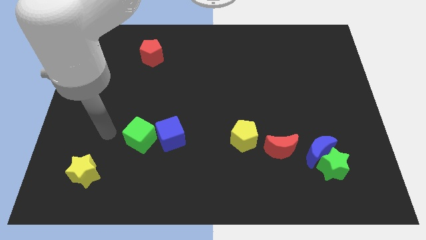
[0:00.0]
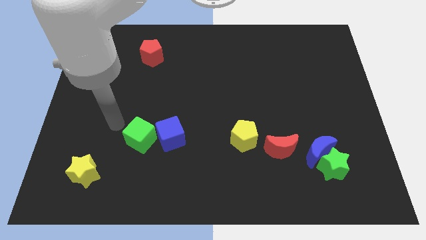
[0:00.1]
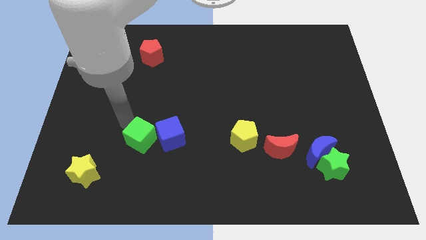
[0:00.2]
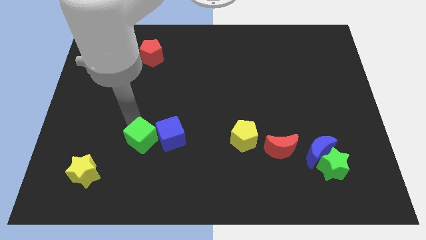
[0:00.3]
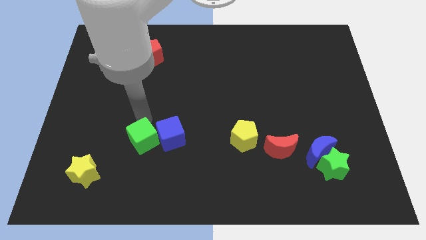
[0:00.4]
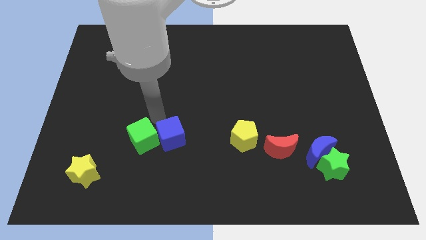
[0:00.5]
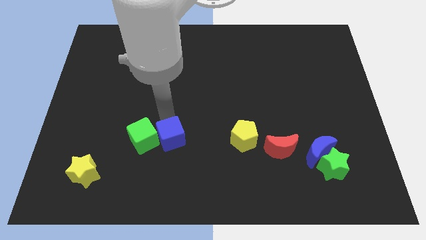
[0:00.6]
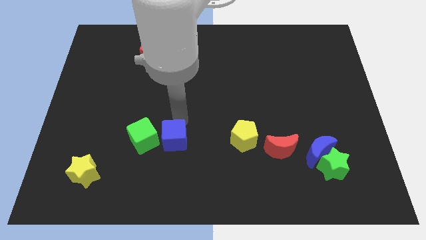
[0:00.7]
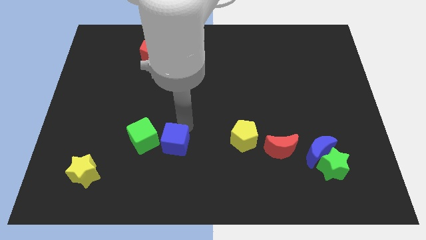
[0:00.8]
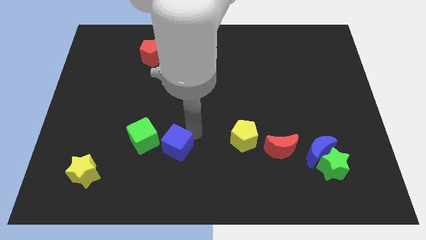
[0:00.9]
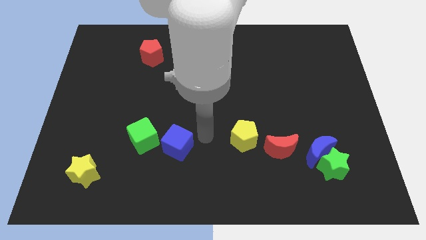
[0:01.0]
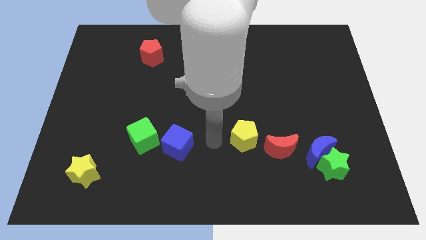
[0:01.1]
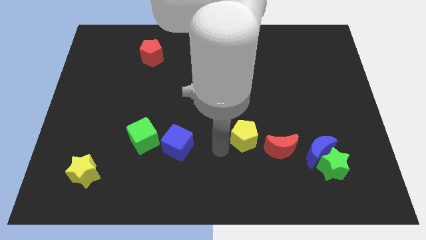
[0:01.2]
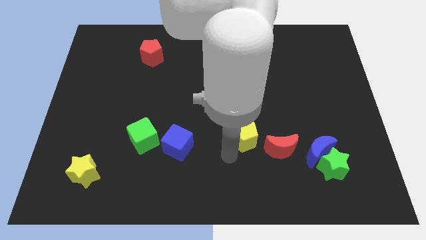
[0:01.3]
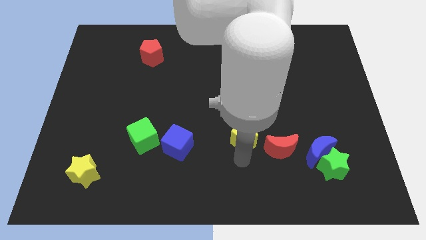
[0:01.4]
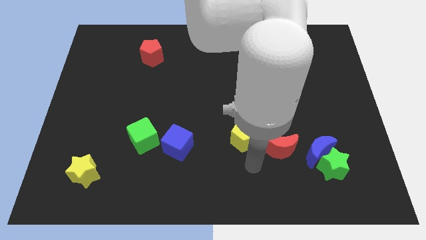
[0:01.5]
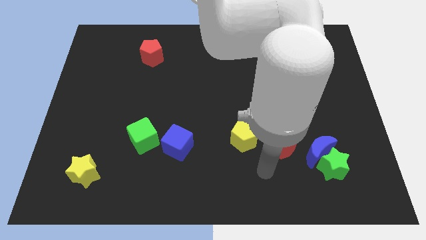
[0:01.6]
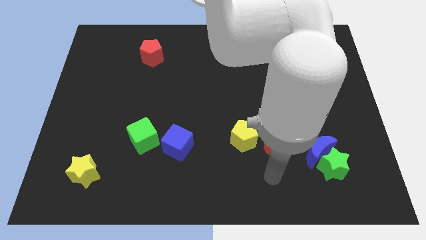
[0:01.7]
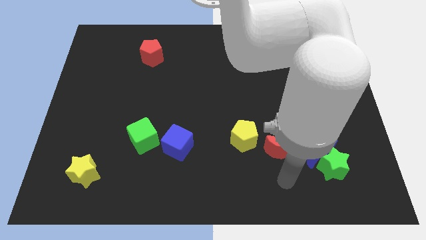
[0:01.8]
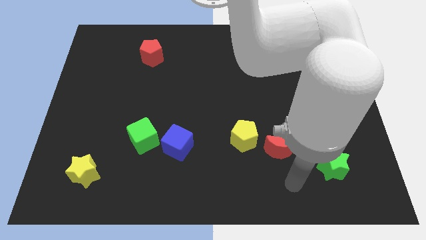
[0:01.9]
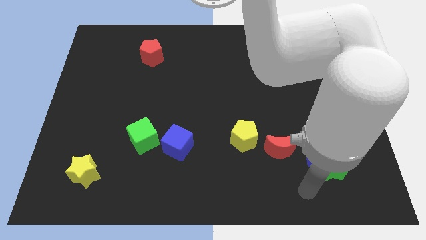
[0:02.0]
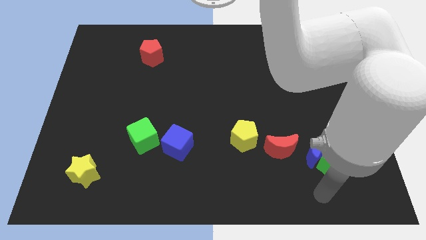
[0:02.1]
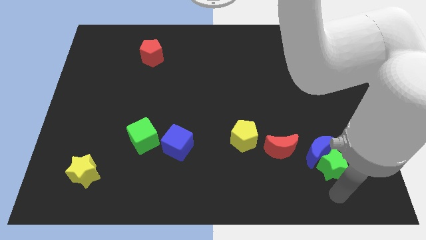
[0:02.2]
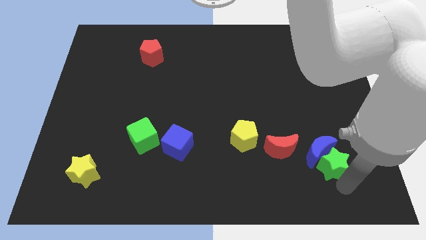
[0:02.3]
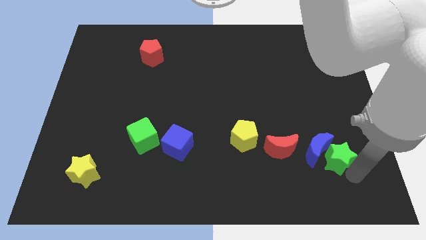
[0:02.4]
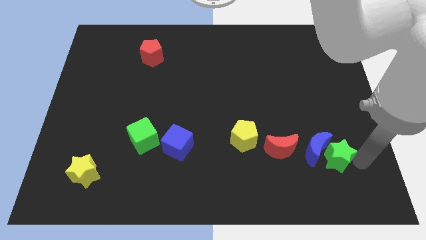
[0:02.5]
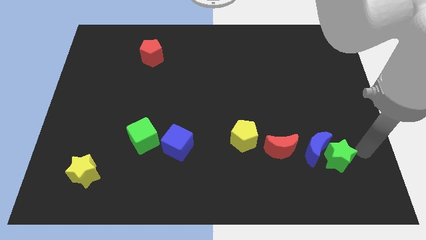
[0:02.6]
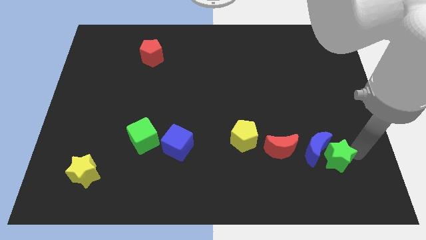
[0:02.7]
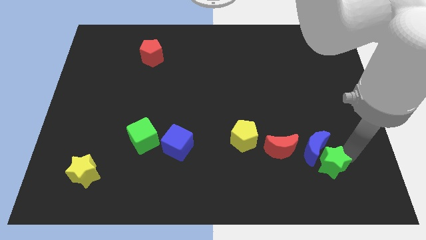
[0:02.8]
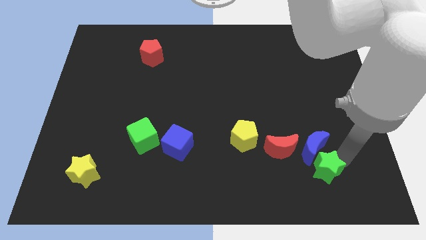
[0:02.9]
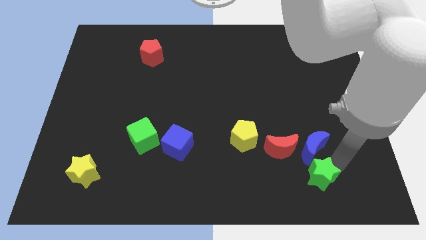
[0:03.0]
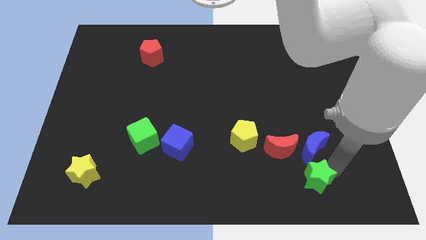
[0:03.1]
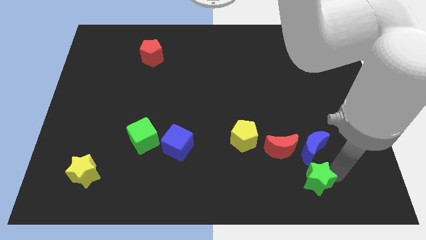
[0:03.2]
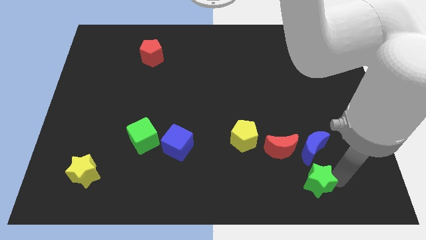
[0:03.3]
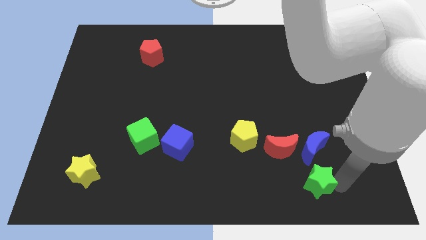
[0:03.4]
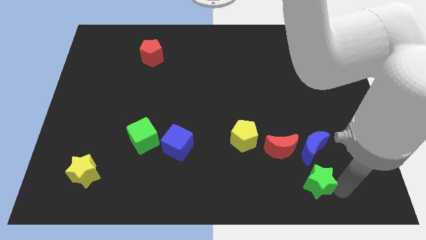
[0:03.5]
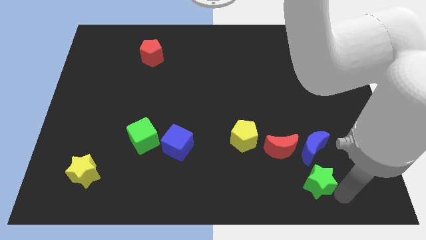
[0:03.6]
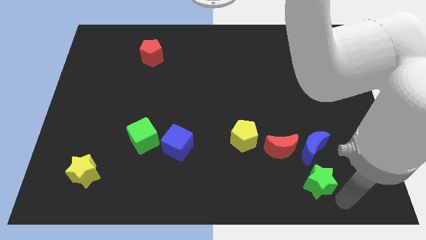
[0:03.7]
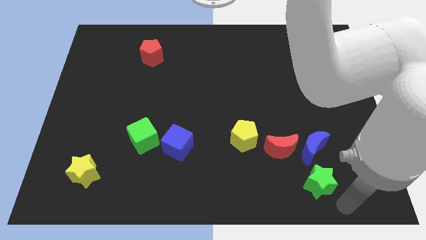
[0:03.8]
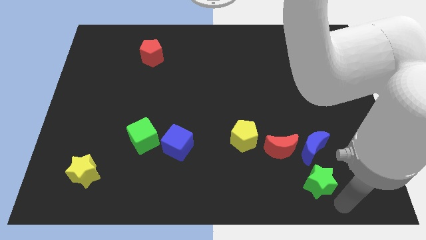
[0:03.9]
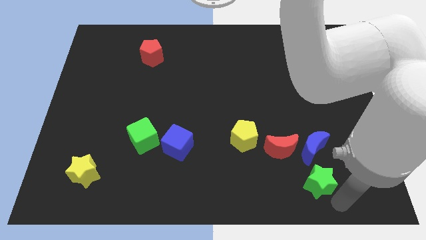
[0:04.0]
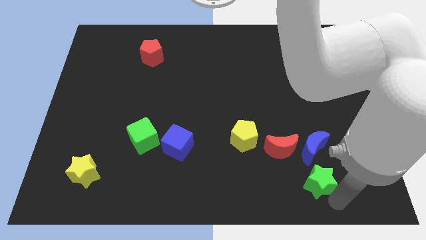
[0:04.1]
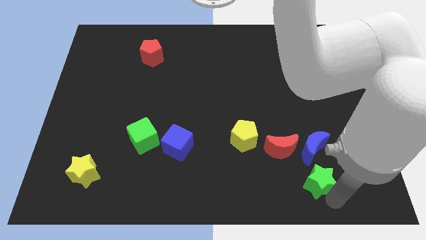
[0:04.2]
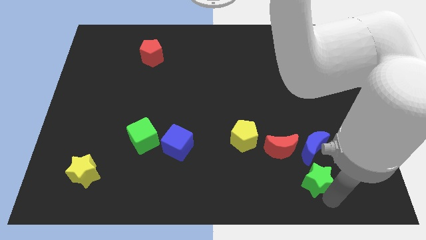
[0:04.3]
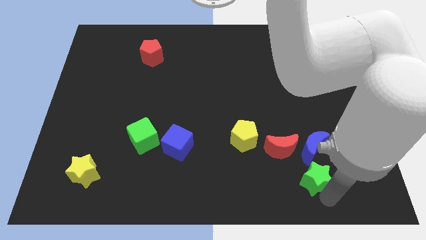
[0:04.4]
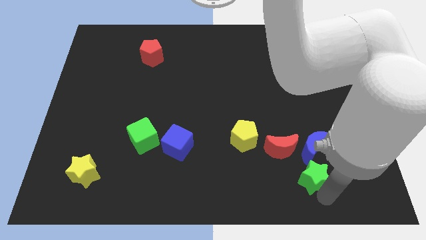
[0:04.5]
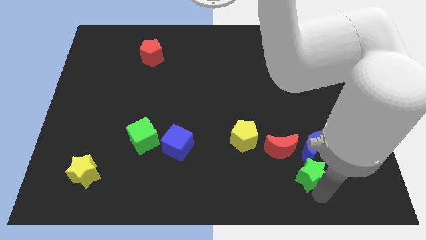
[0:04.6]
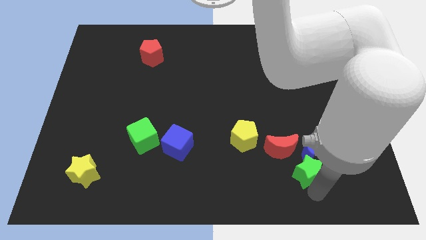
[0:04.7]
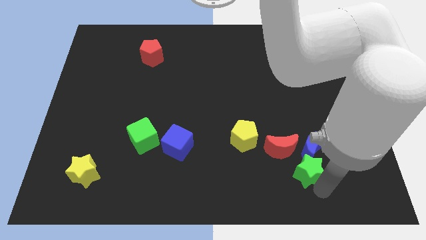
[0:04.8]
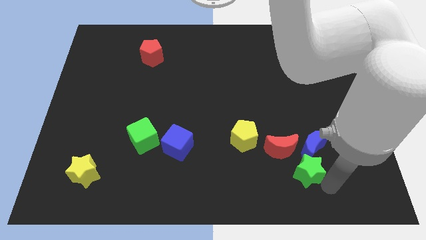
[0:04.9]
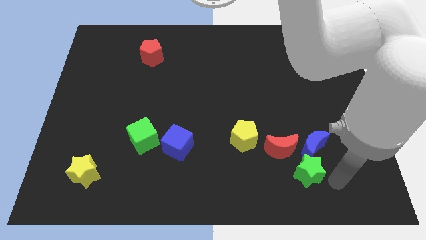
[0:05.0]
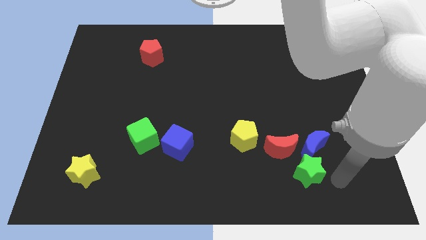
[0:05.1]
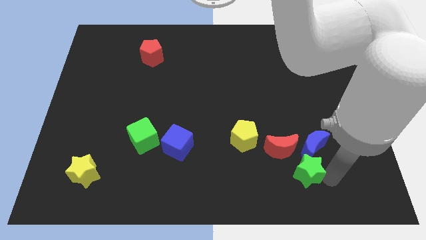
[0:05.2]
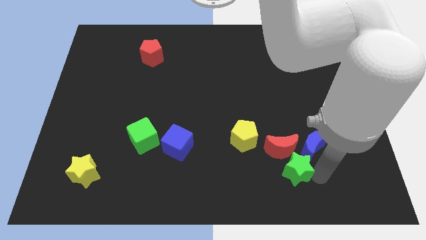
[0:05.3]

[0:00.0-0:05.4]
slide the green star left a little bit

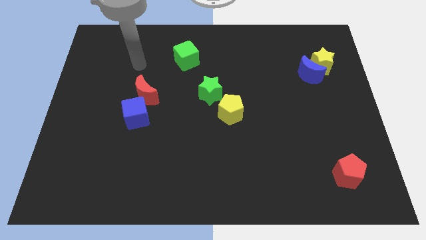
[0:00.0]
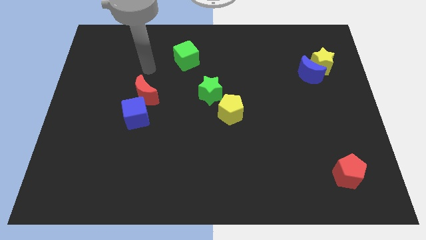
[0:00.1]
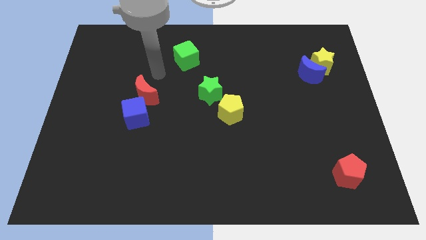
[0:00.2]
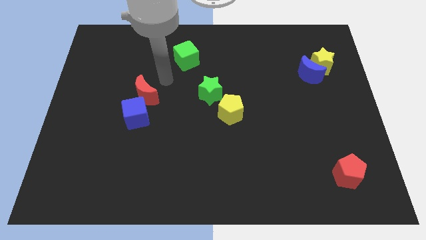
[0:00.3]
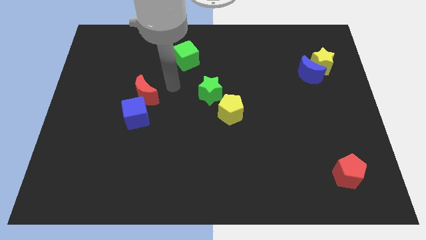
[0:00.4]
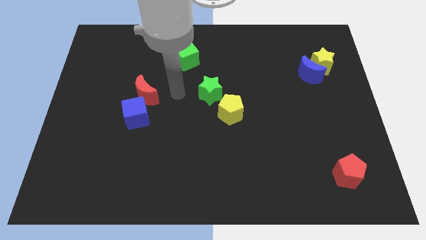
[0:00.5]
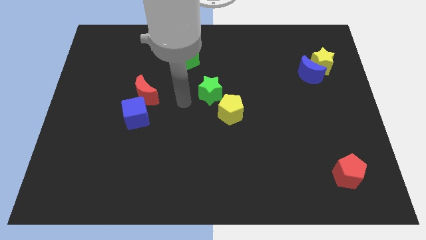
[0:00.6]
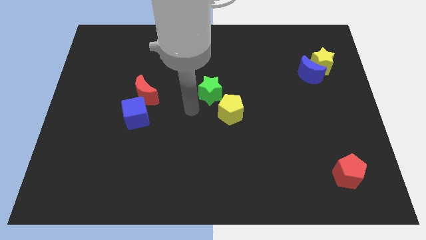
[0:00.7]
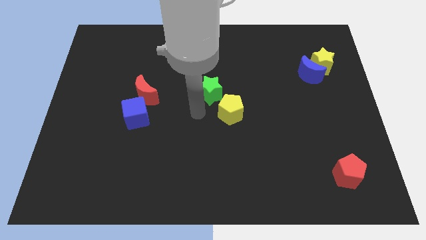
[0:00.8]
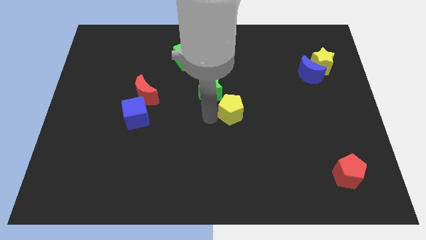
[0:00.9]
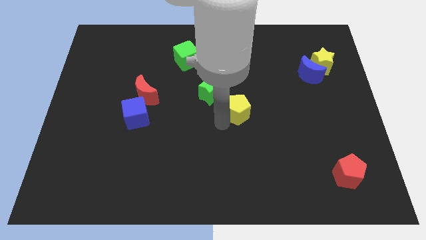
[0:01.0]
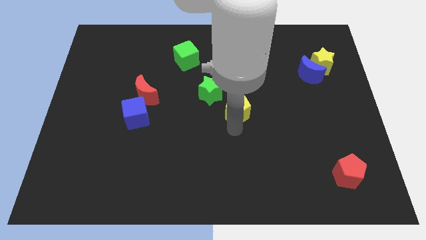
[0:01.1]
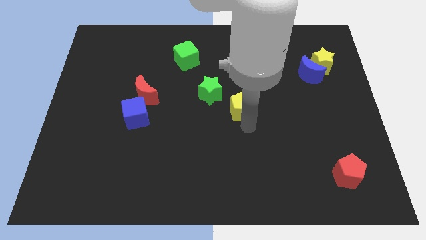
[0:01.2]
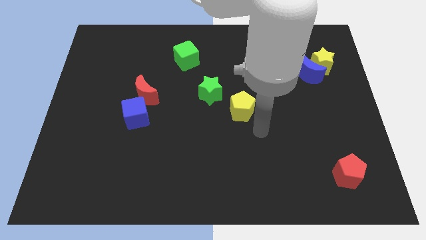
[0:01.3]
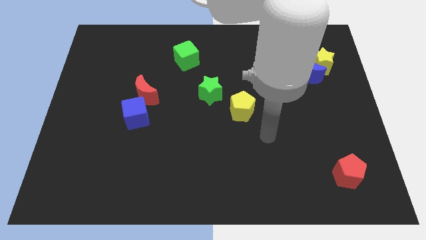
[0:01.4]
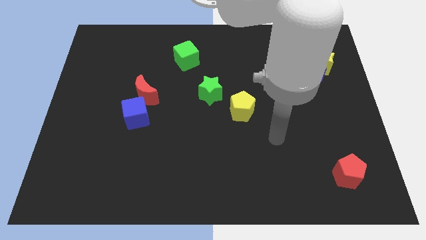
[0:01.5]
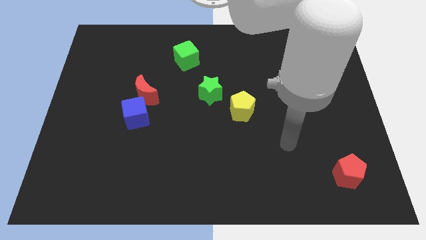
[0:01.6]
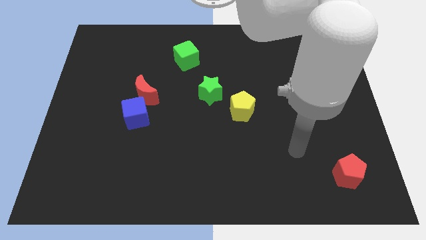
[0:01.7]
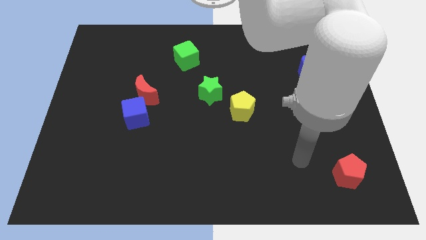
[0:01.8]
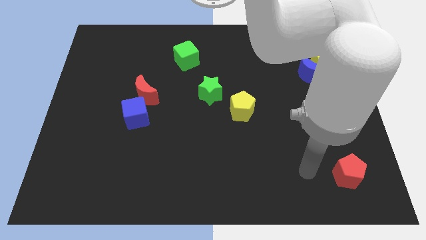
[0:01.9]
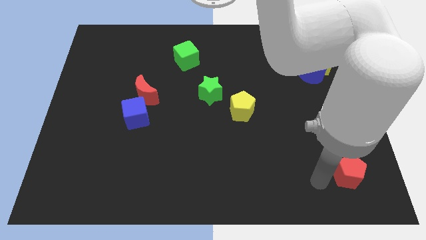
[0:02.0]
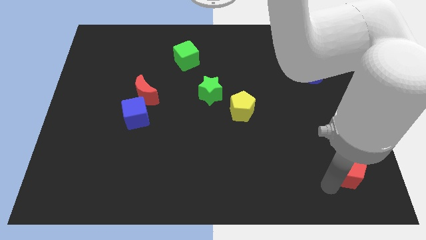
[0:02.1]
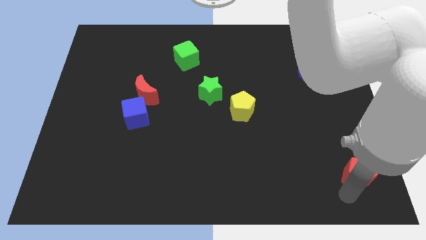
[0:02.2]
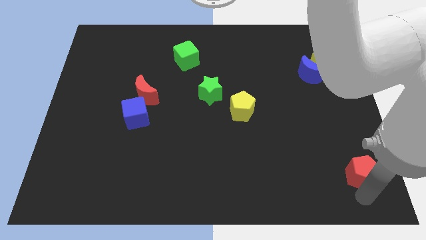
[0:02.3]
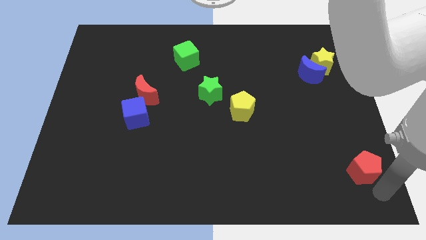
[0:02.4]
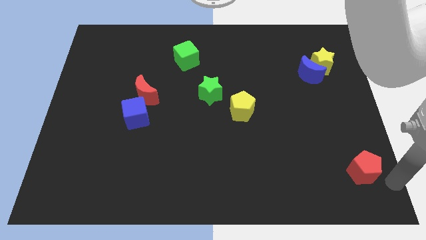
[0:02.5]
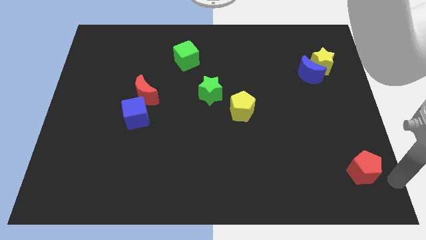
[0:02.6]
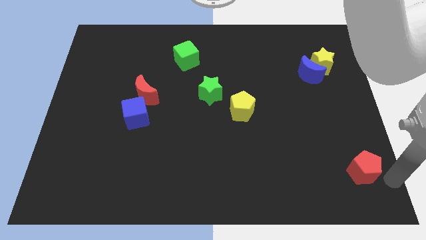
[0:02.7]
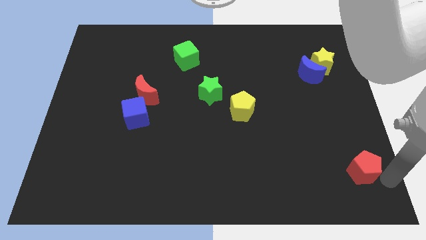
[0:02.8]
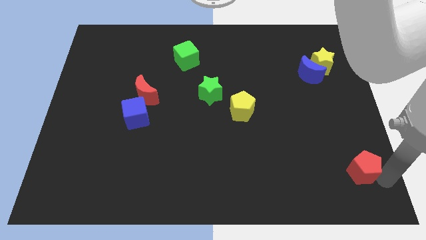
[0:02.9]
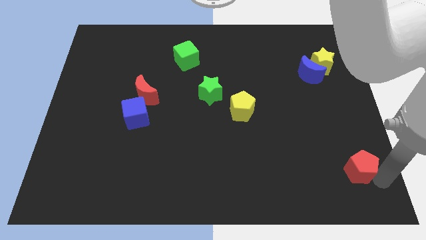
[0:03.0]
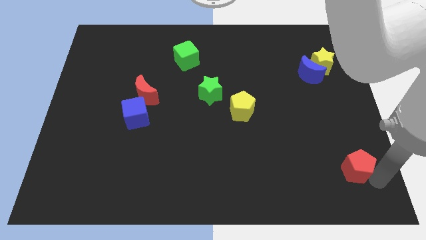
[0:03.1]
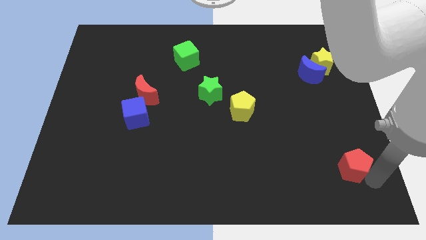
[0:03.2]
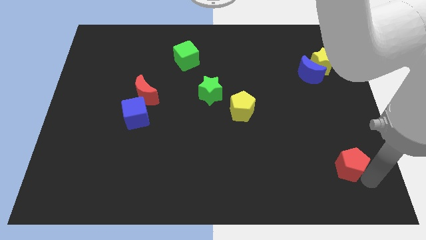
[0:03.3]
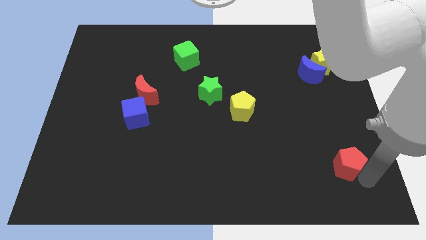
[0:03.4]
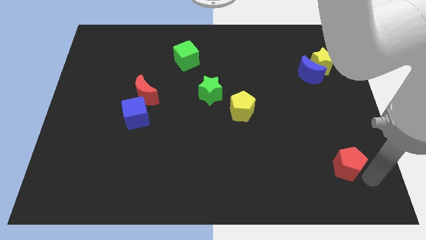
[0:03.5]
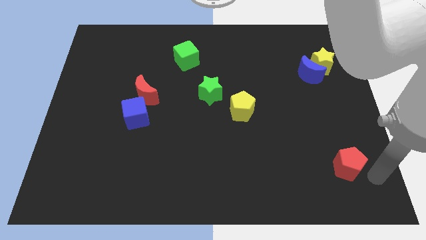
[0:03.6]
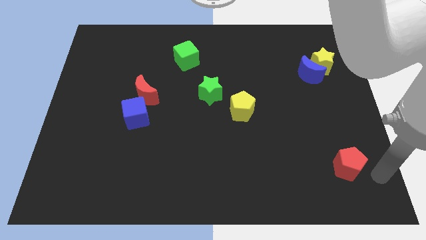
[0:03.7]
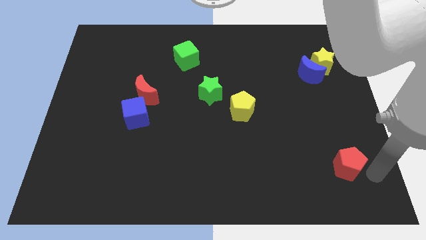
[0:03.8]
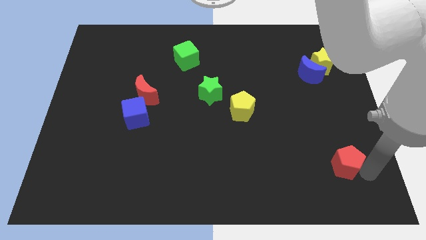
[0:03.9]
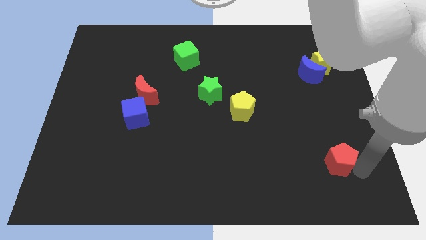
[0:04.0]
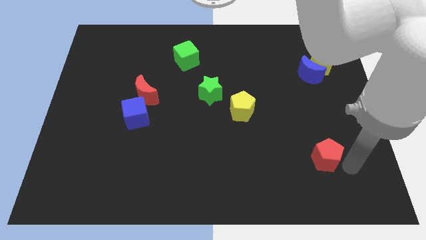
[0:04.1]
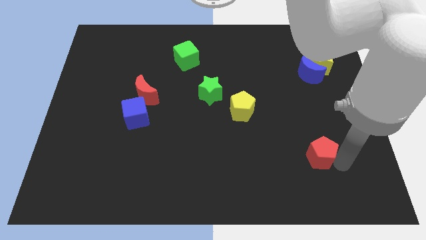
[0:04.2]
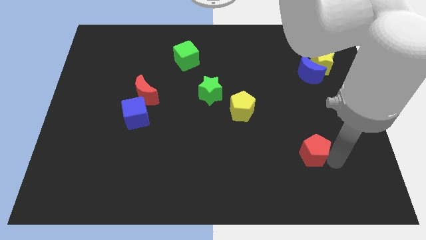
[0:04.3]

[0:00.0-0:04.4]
push the red pentagon upwards and to the left diagonally slightly
